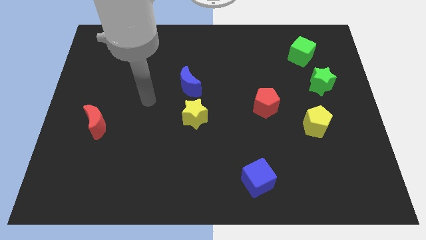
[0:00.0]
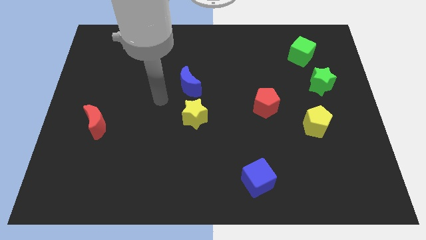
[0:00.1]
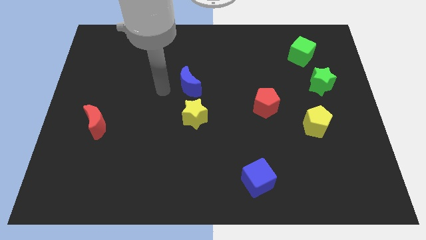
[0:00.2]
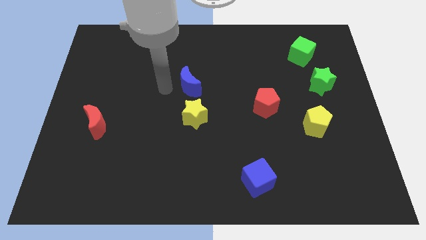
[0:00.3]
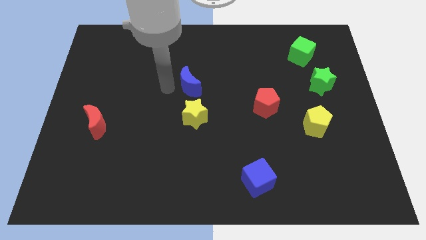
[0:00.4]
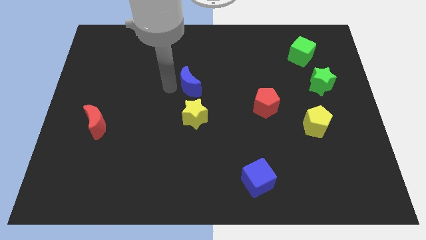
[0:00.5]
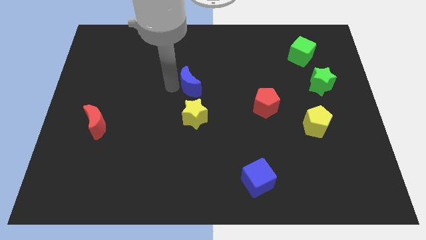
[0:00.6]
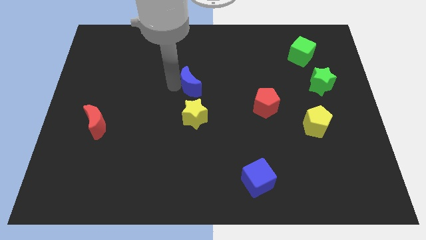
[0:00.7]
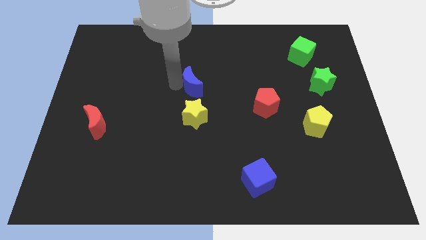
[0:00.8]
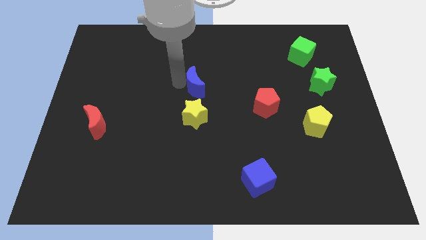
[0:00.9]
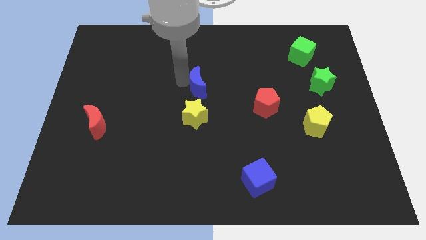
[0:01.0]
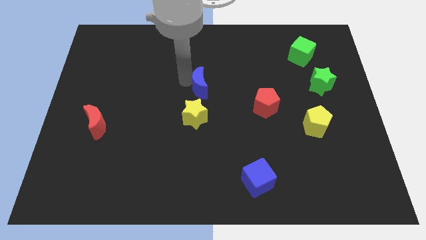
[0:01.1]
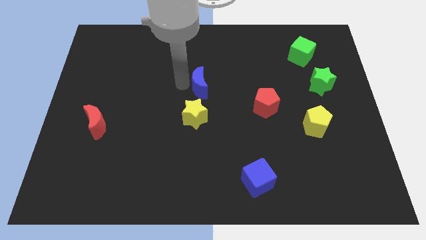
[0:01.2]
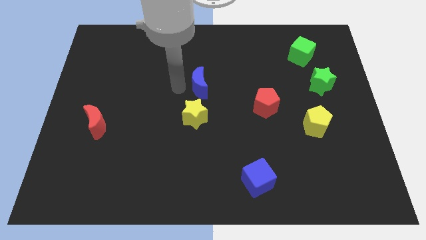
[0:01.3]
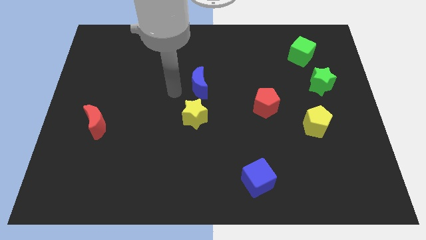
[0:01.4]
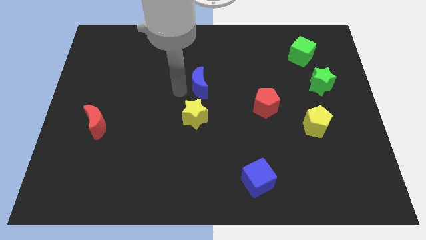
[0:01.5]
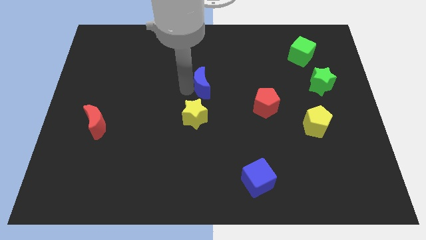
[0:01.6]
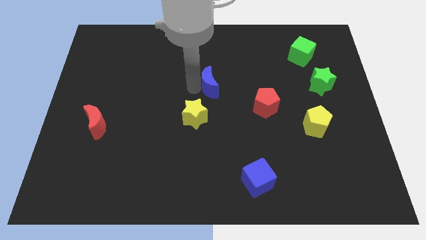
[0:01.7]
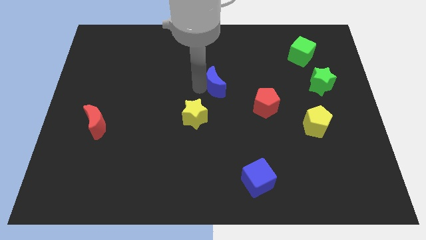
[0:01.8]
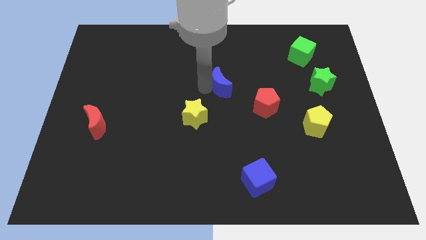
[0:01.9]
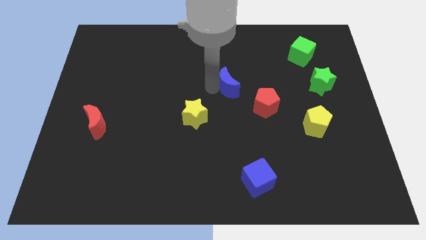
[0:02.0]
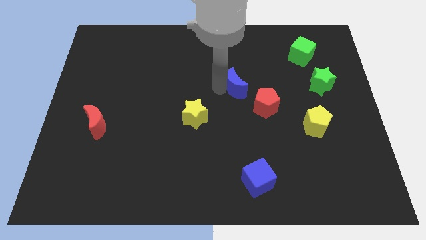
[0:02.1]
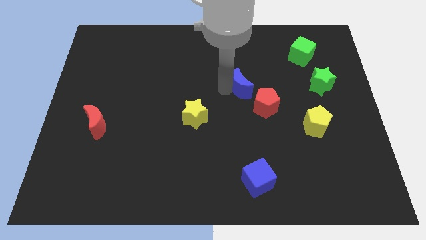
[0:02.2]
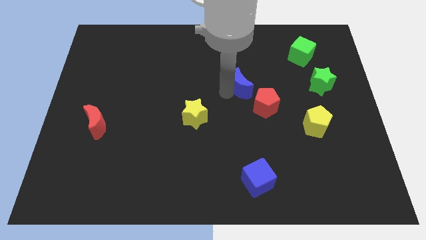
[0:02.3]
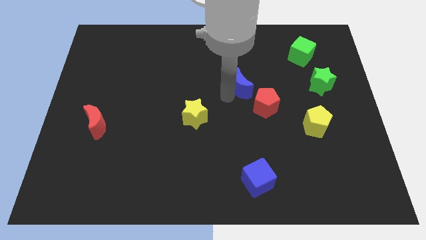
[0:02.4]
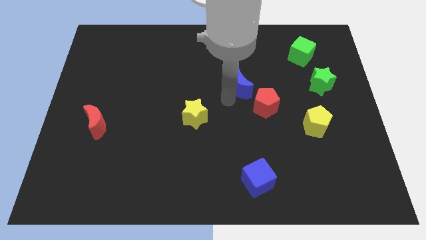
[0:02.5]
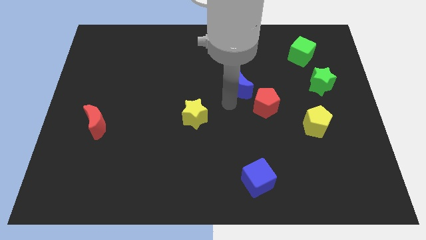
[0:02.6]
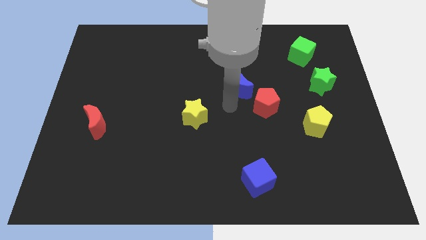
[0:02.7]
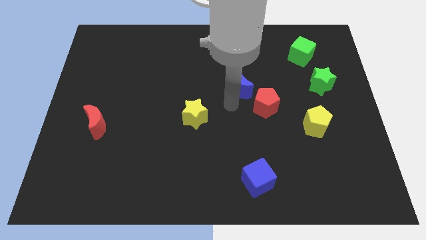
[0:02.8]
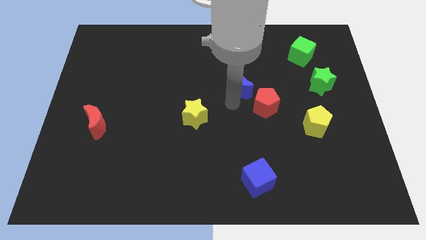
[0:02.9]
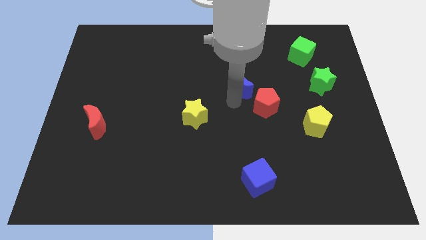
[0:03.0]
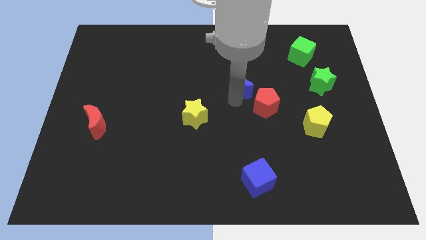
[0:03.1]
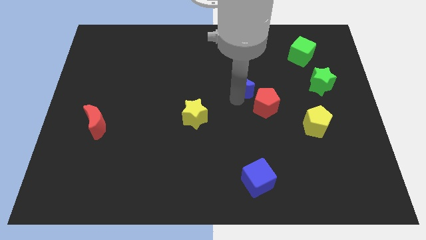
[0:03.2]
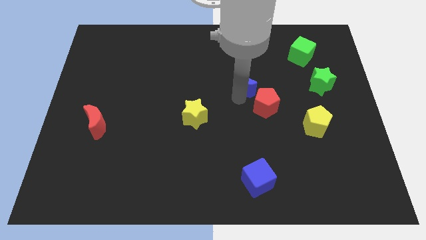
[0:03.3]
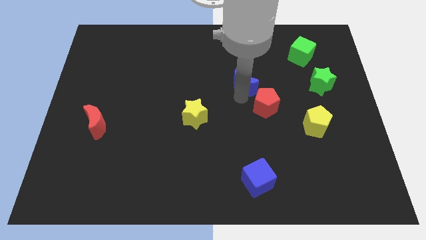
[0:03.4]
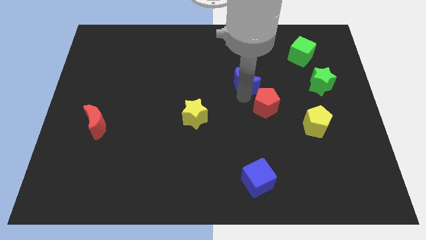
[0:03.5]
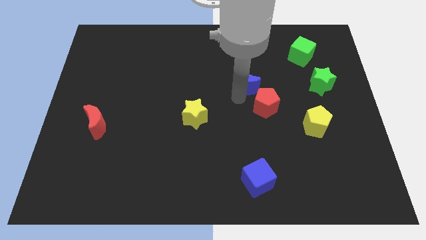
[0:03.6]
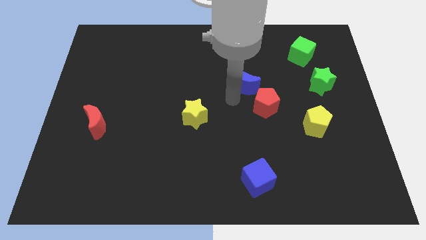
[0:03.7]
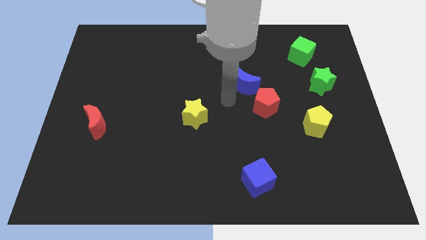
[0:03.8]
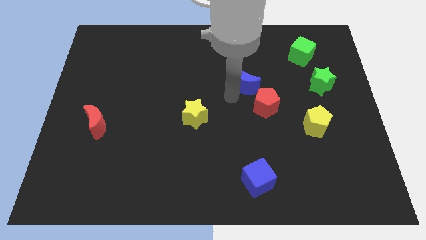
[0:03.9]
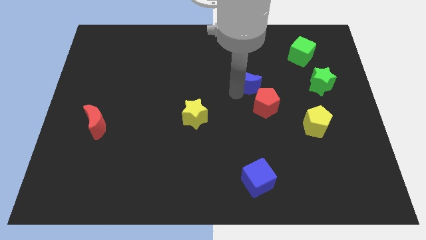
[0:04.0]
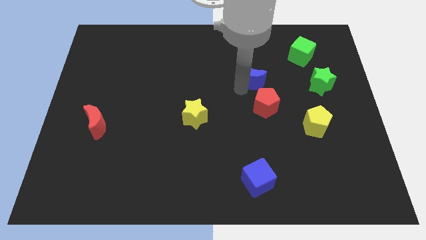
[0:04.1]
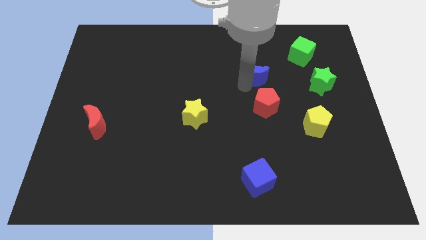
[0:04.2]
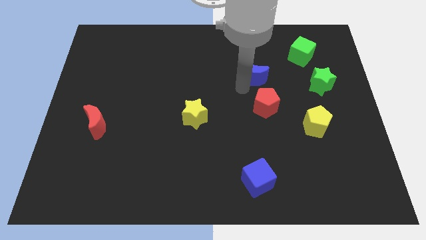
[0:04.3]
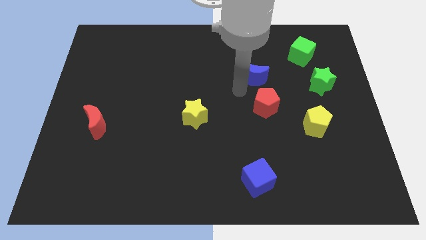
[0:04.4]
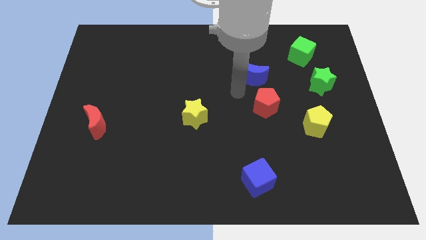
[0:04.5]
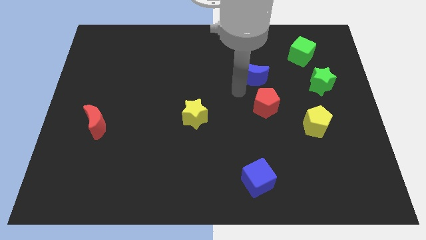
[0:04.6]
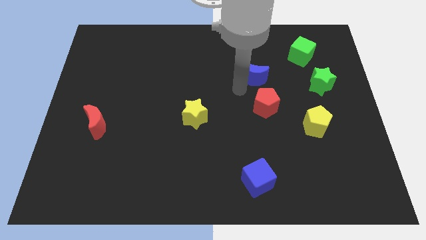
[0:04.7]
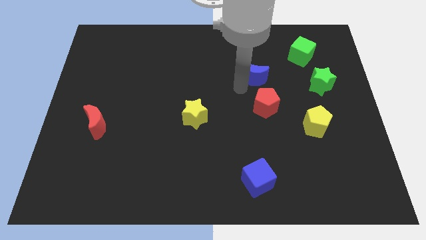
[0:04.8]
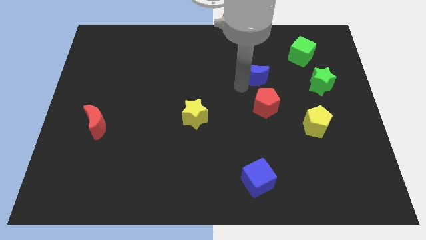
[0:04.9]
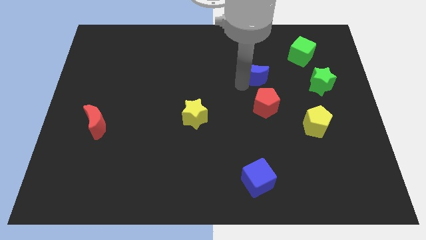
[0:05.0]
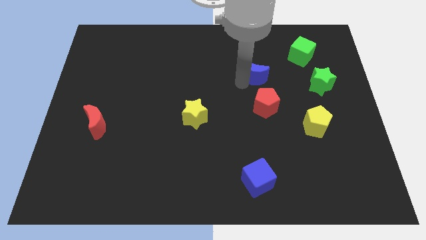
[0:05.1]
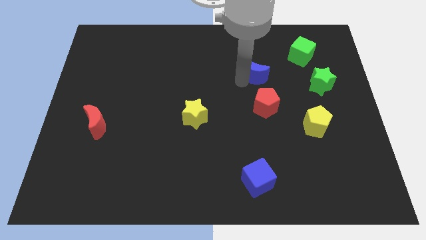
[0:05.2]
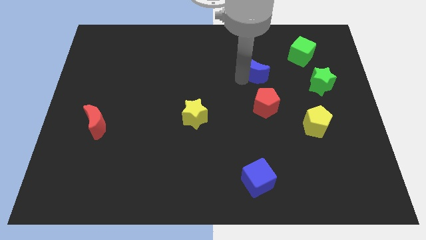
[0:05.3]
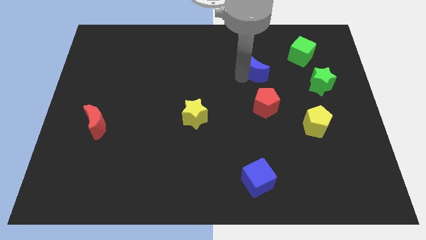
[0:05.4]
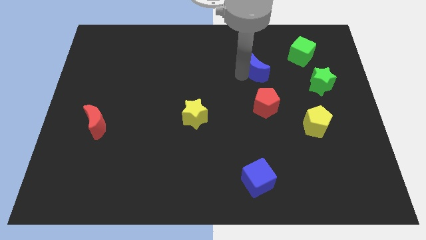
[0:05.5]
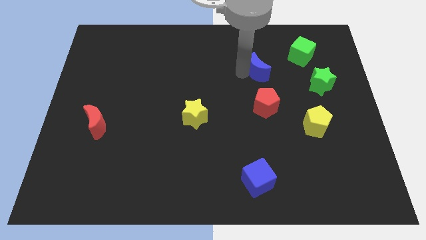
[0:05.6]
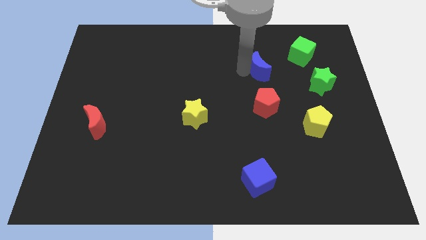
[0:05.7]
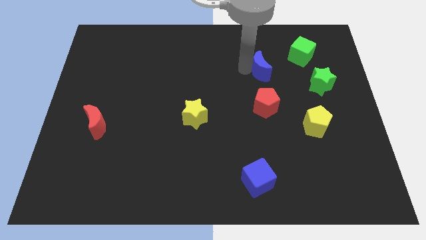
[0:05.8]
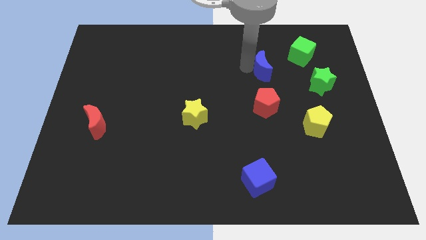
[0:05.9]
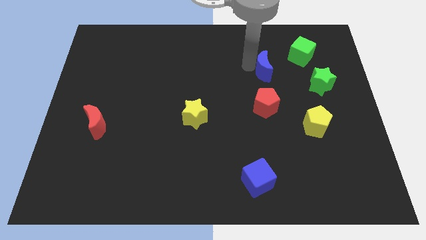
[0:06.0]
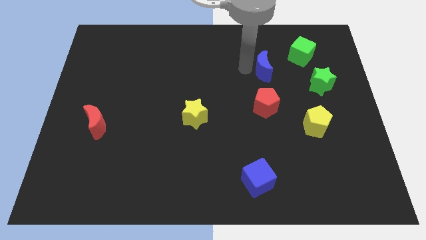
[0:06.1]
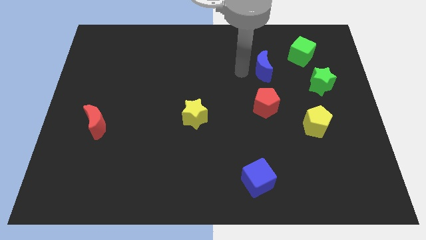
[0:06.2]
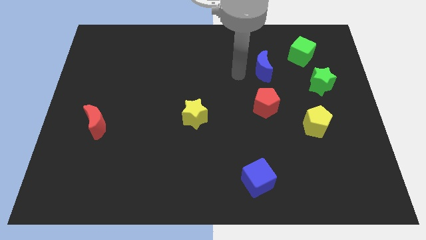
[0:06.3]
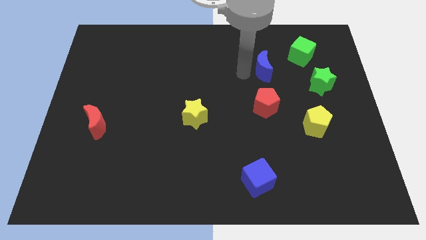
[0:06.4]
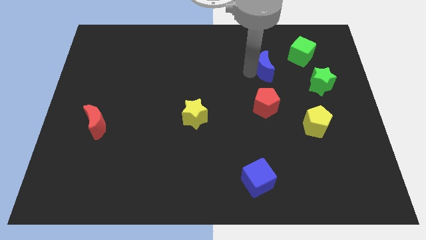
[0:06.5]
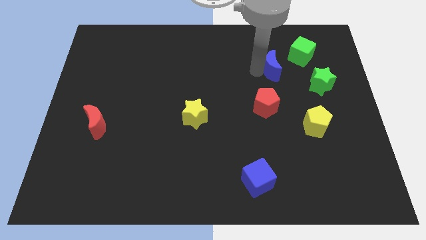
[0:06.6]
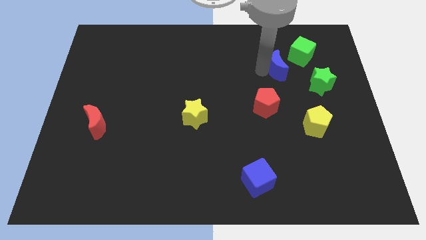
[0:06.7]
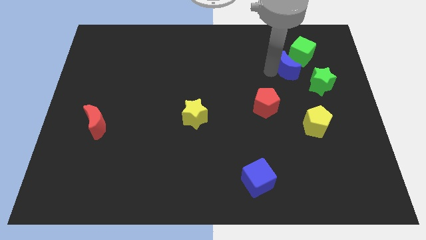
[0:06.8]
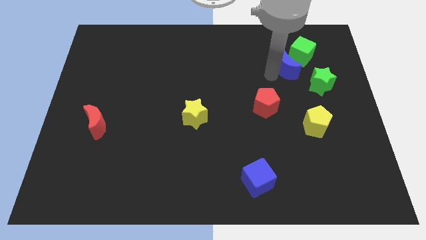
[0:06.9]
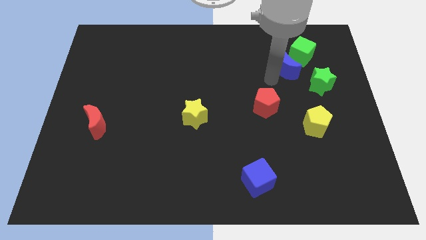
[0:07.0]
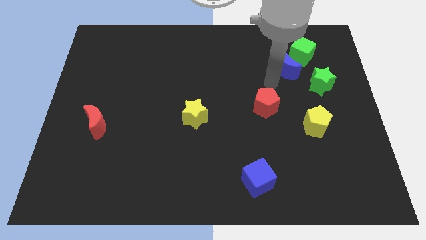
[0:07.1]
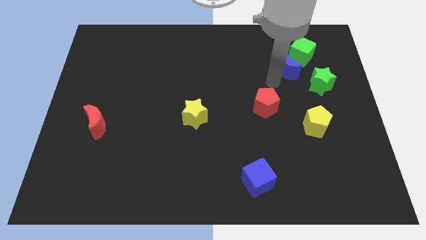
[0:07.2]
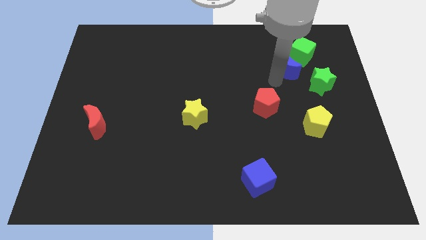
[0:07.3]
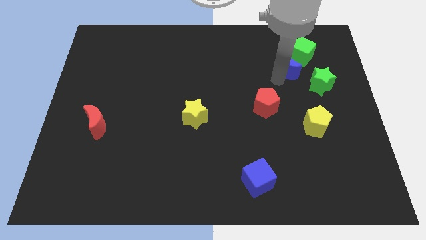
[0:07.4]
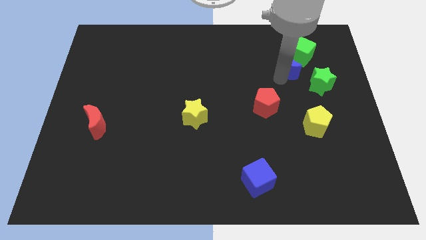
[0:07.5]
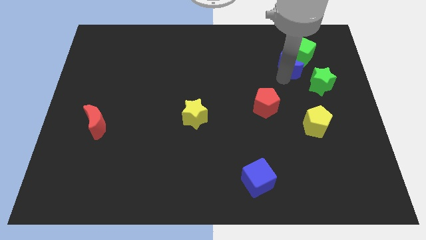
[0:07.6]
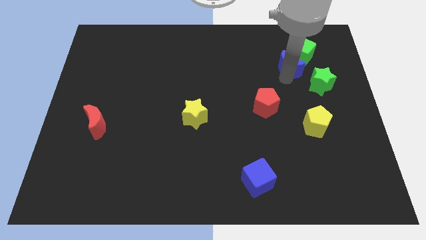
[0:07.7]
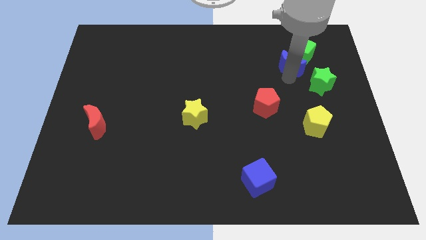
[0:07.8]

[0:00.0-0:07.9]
slide the blue moon close to the green cube
